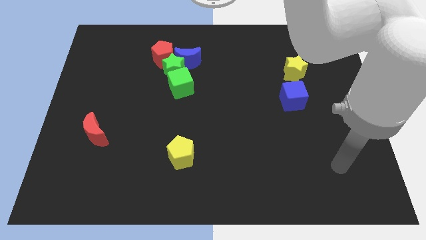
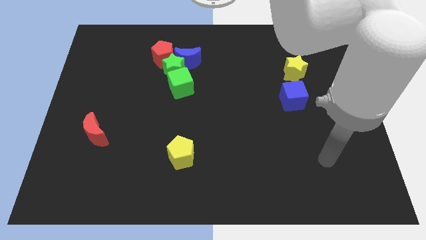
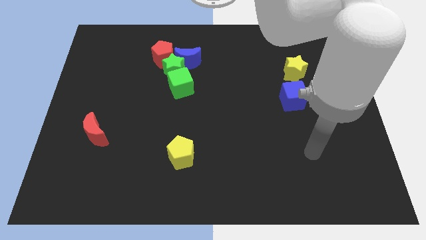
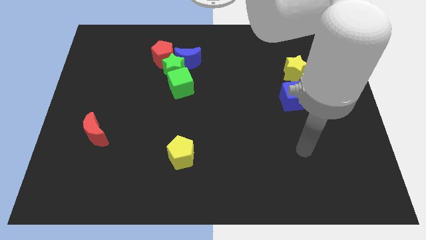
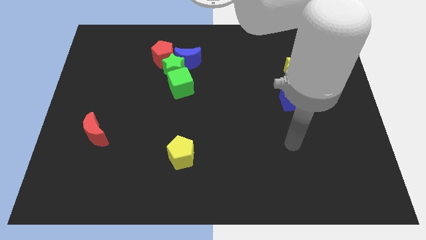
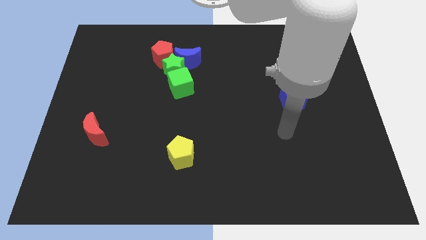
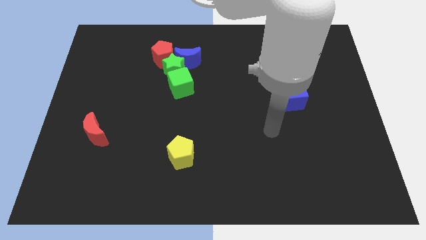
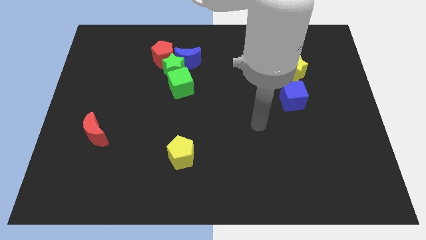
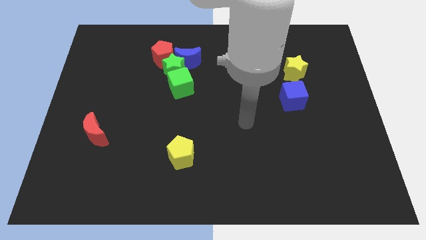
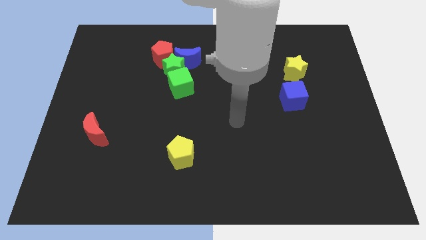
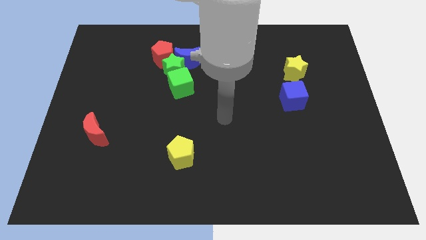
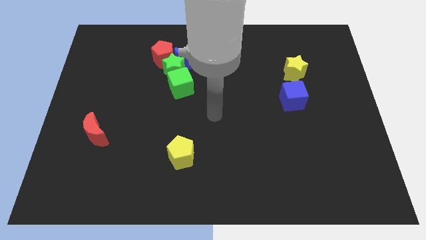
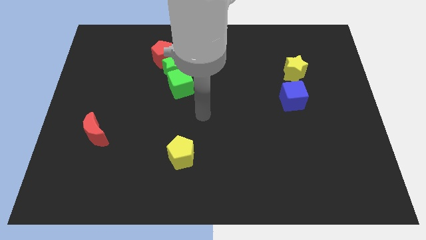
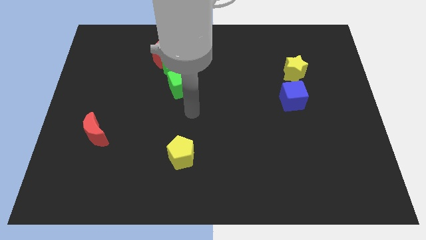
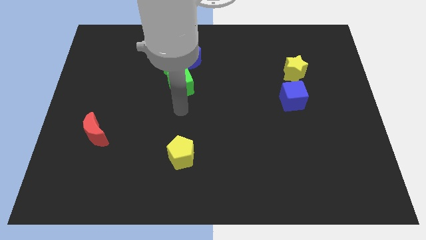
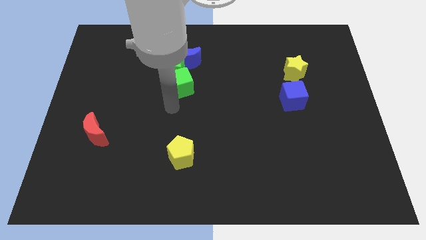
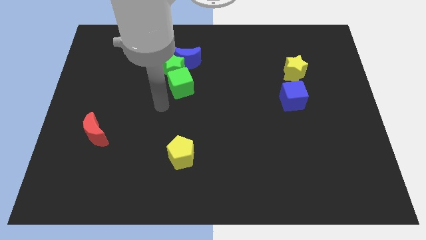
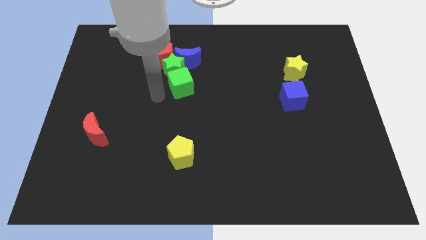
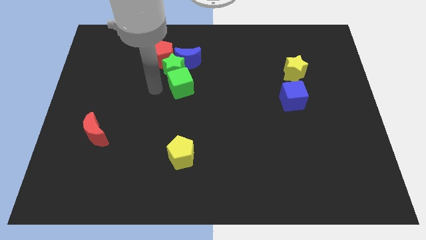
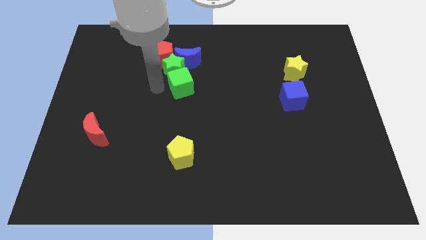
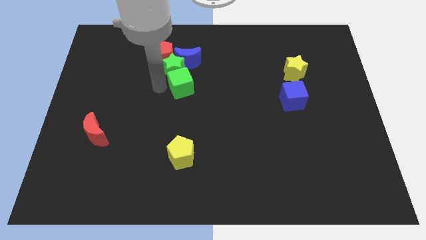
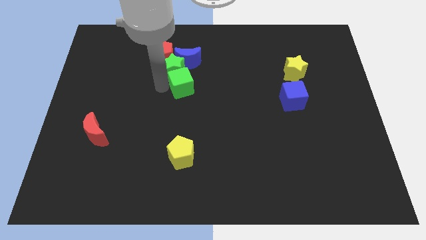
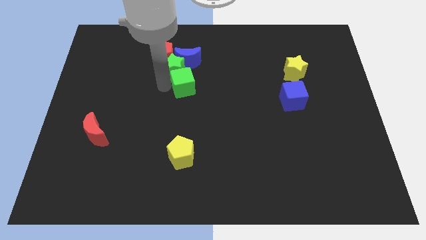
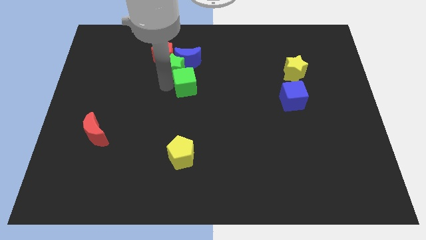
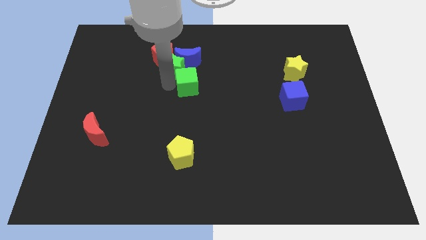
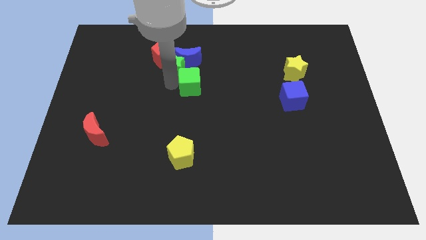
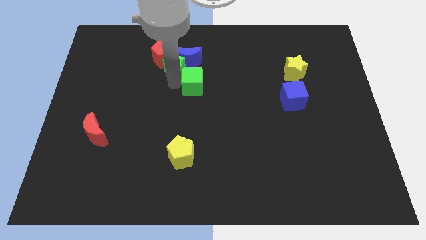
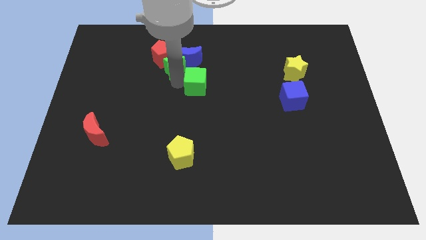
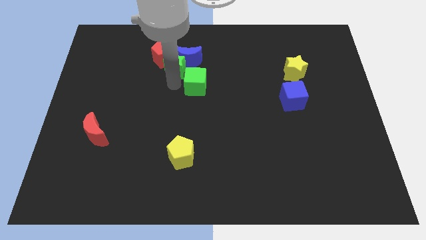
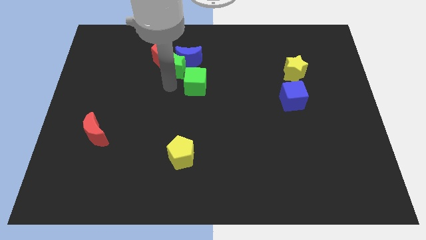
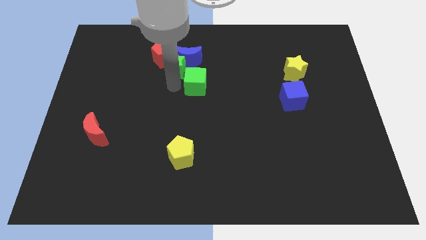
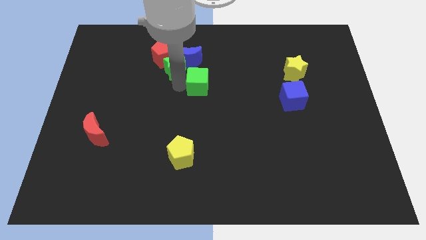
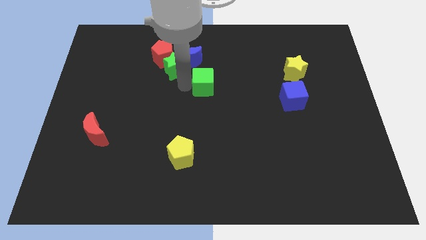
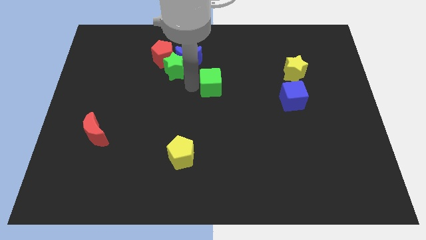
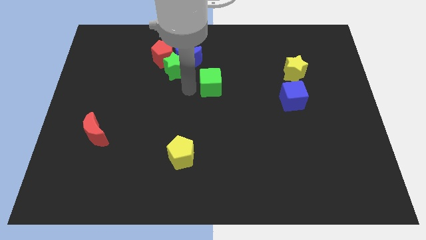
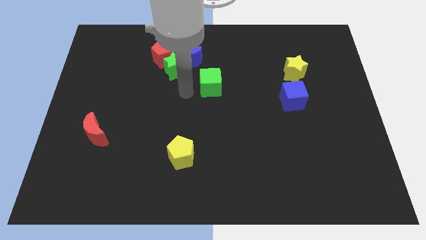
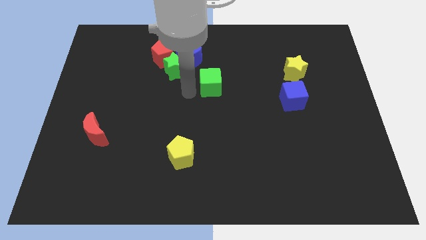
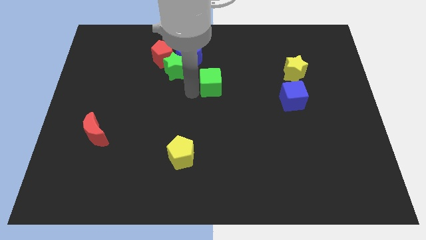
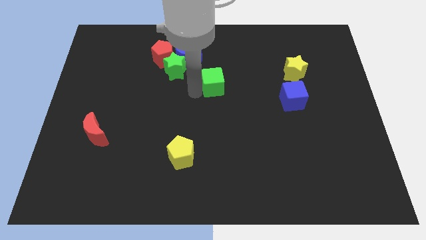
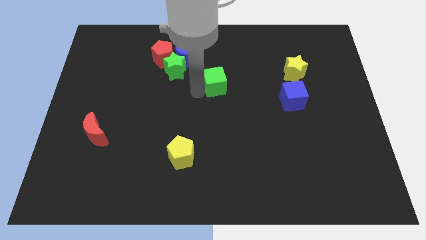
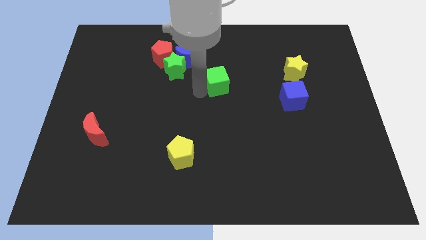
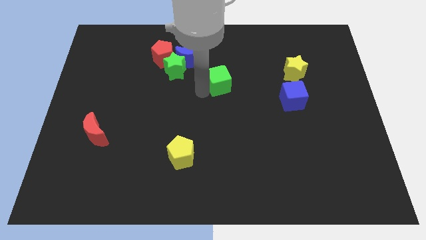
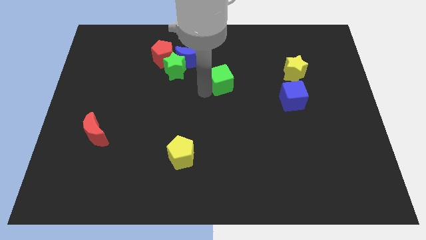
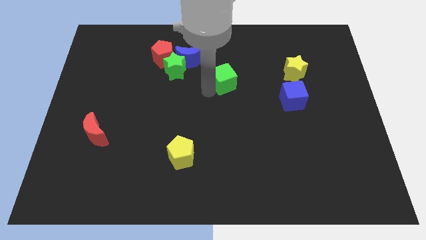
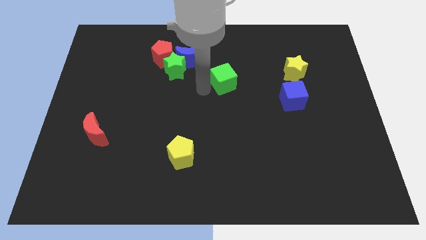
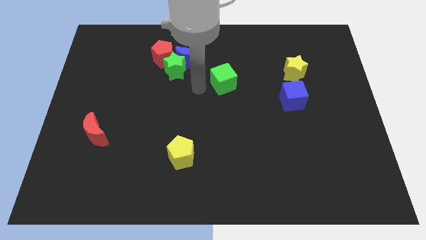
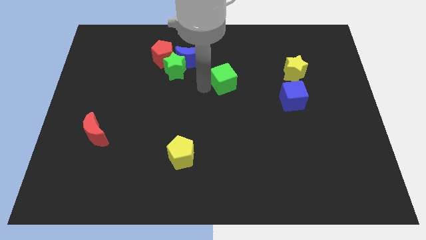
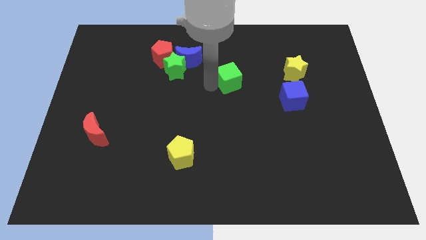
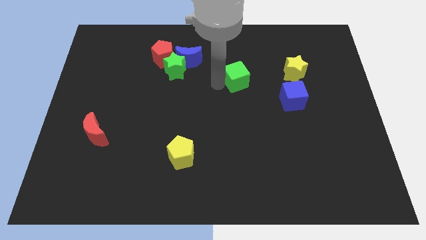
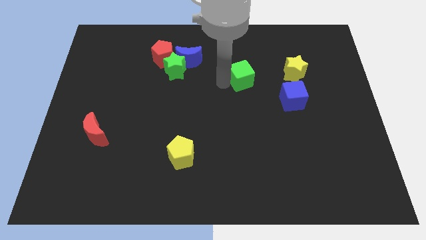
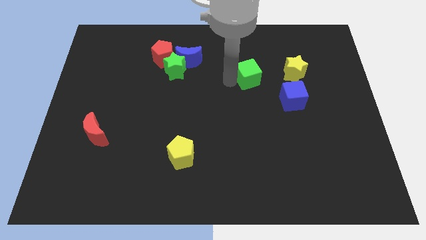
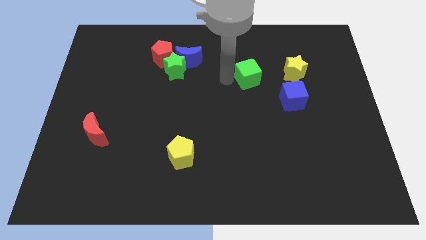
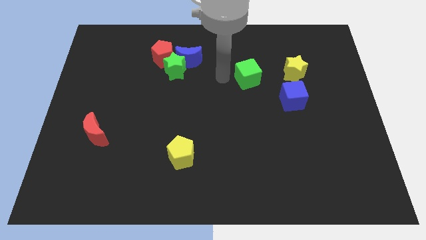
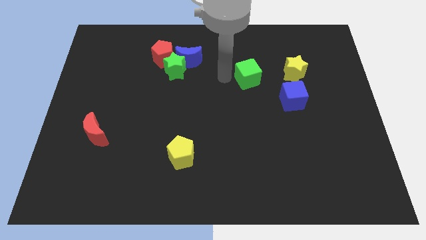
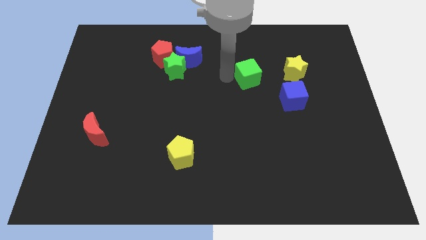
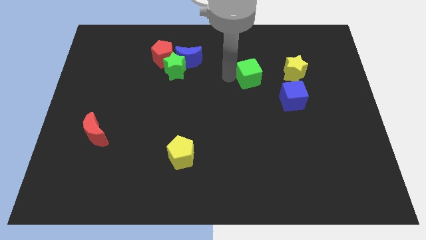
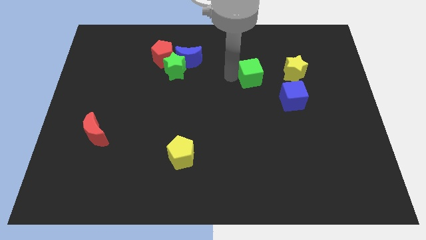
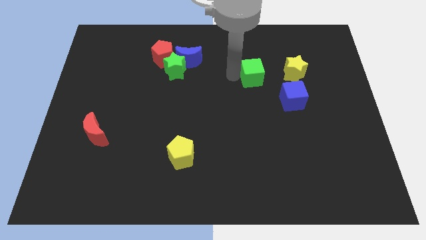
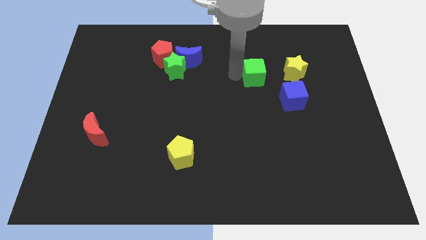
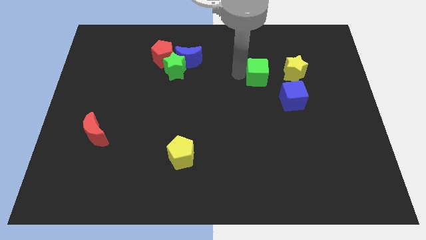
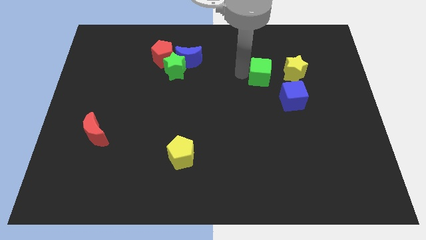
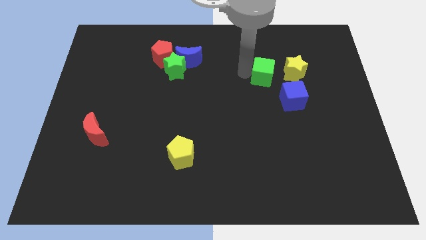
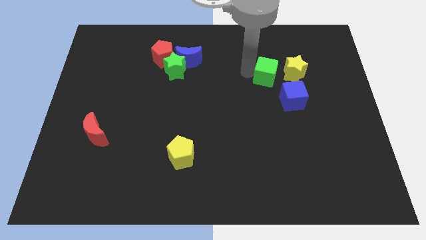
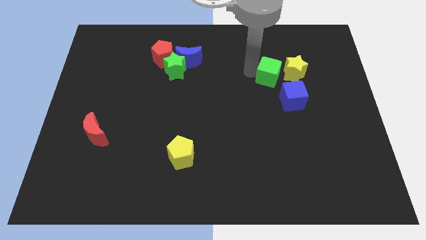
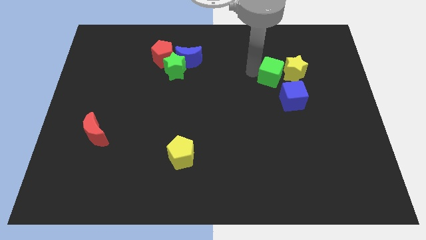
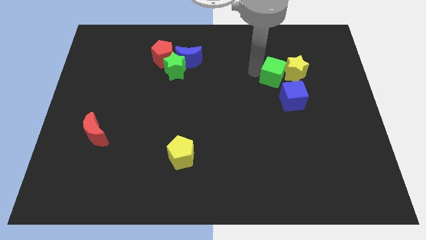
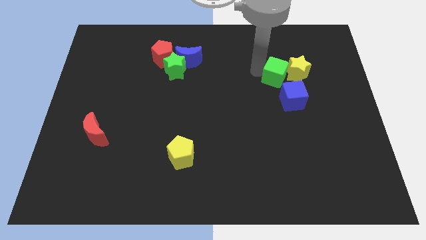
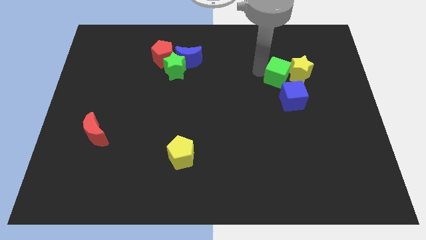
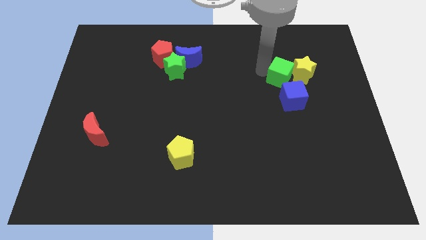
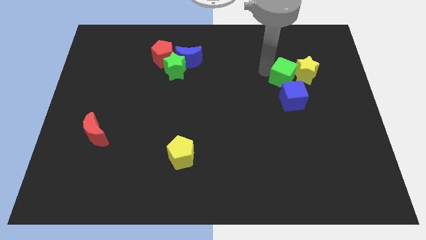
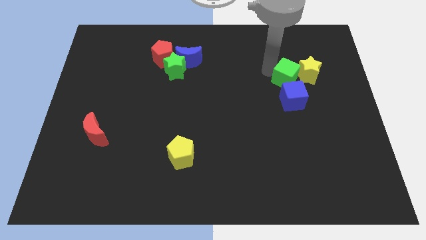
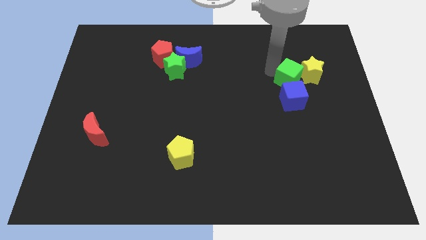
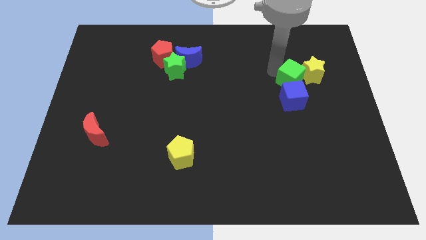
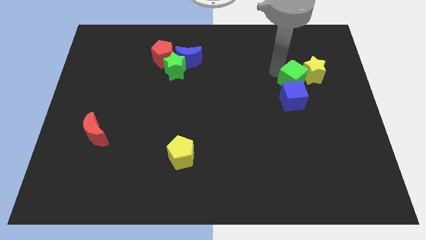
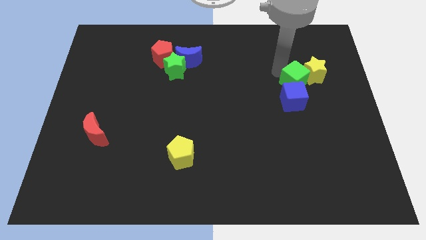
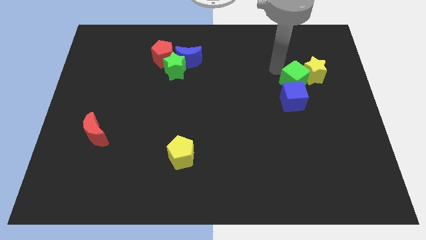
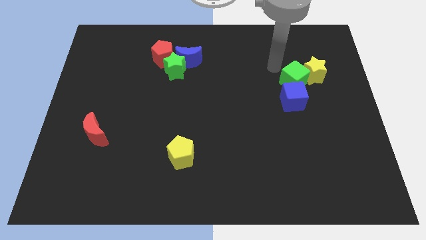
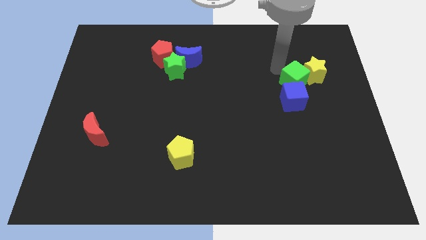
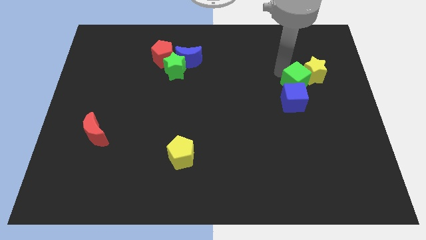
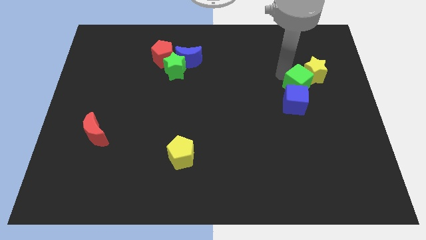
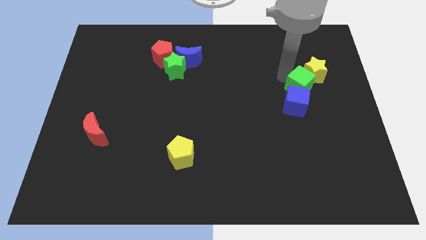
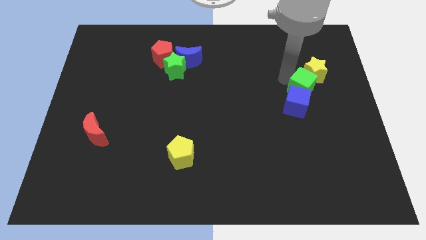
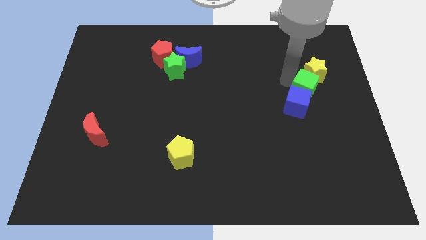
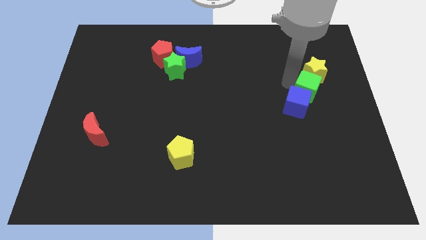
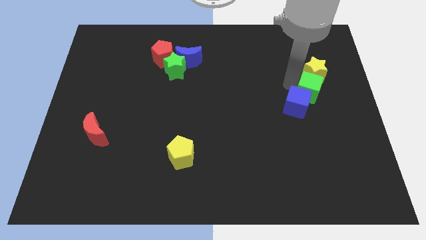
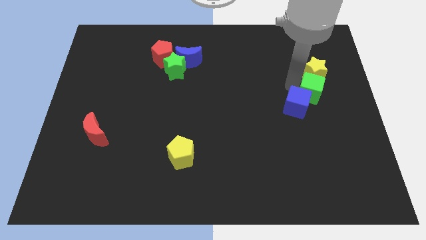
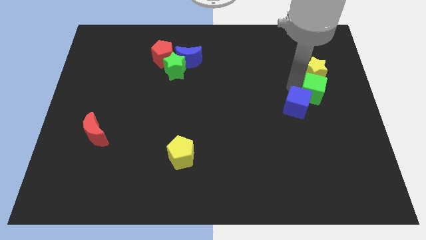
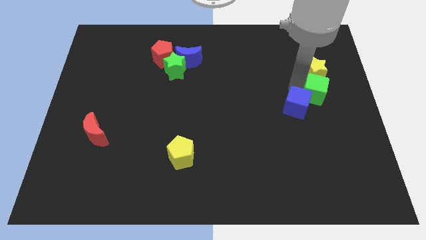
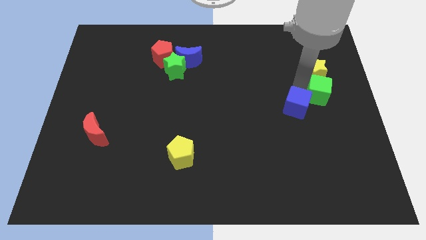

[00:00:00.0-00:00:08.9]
put the green cube to the right side of the board
